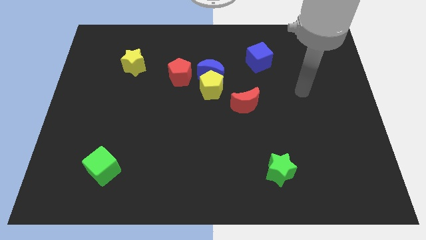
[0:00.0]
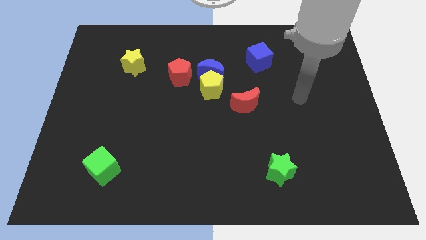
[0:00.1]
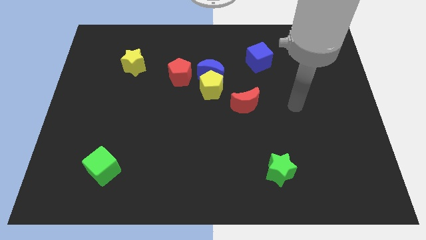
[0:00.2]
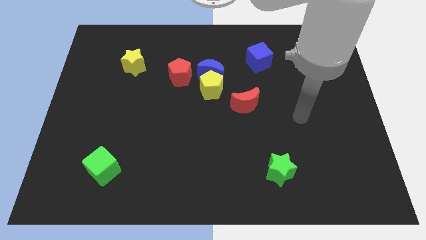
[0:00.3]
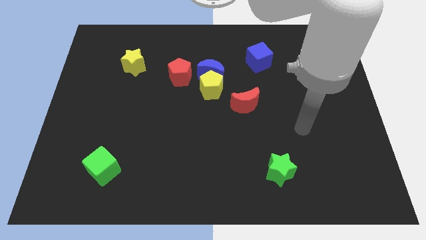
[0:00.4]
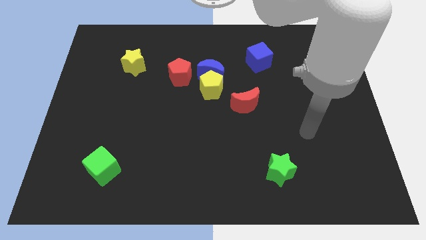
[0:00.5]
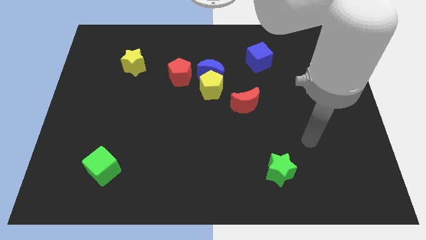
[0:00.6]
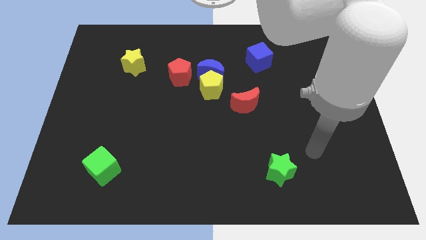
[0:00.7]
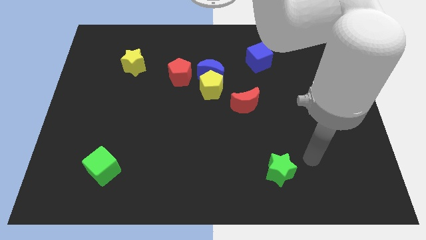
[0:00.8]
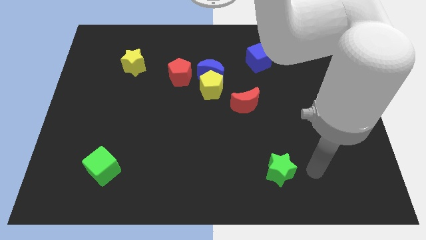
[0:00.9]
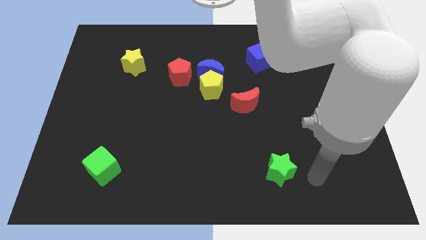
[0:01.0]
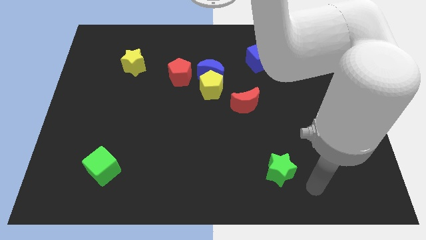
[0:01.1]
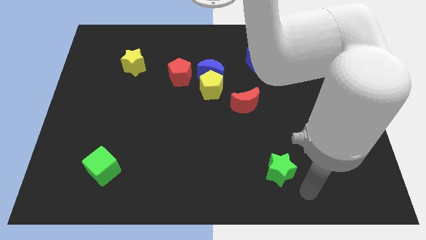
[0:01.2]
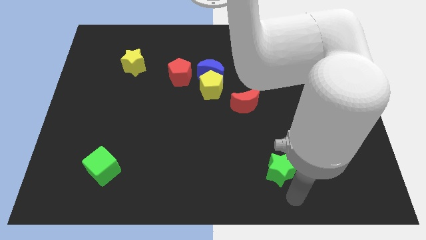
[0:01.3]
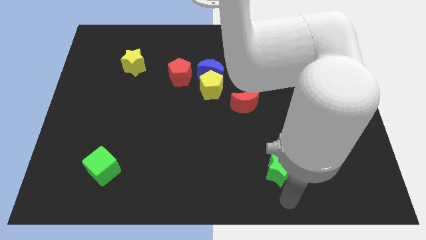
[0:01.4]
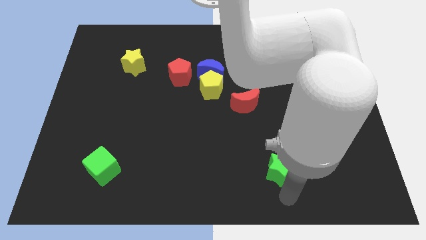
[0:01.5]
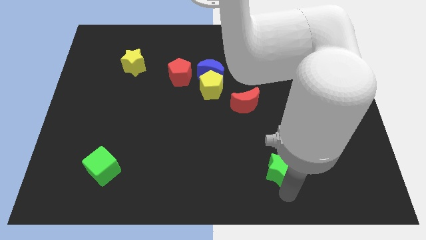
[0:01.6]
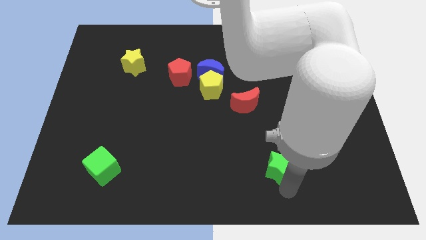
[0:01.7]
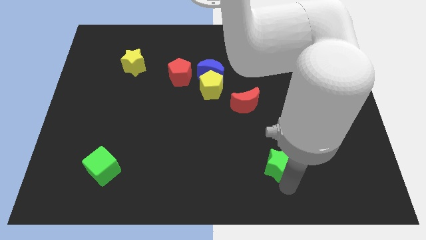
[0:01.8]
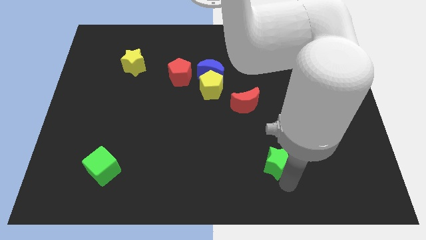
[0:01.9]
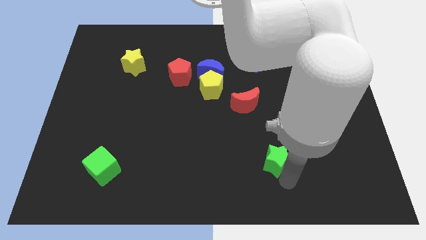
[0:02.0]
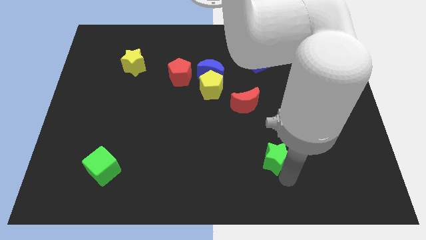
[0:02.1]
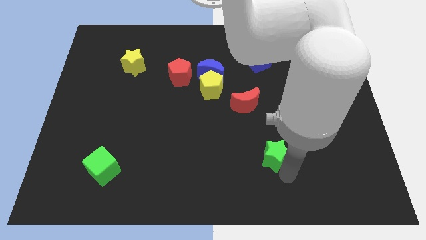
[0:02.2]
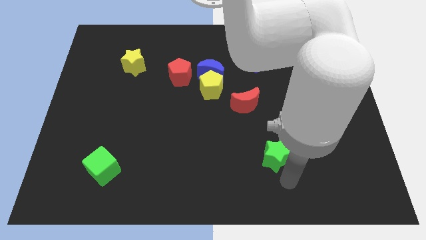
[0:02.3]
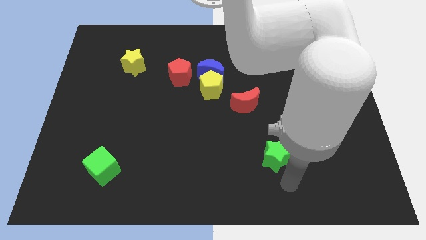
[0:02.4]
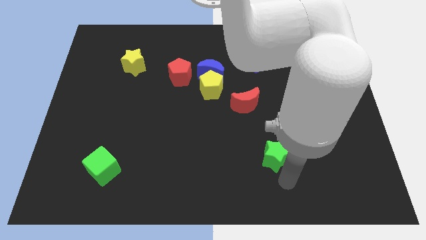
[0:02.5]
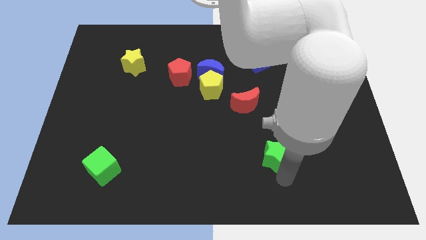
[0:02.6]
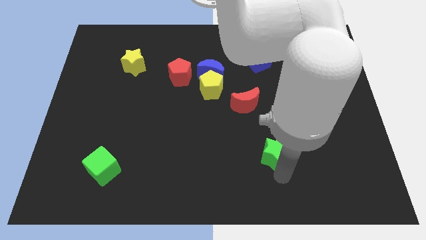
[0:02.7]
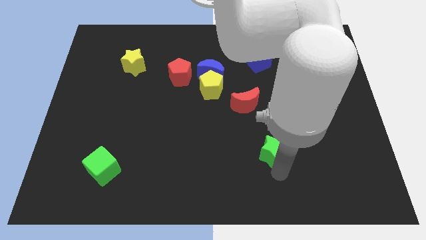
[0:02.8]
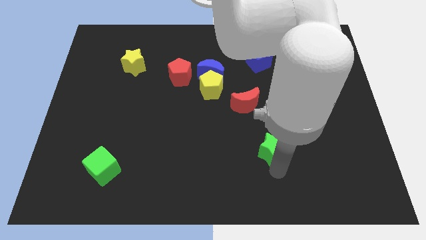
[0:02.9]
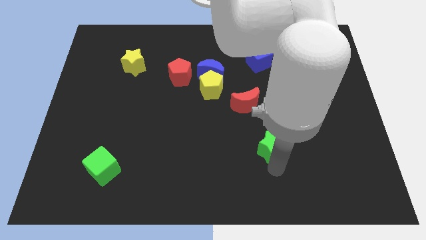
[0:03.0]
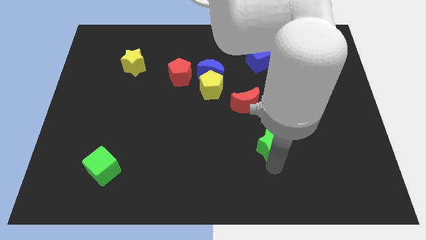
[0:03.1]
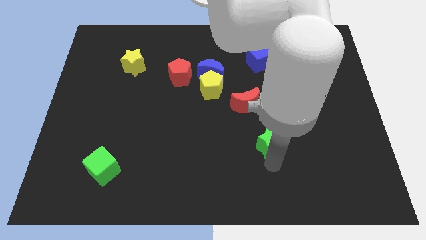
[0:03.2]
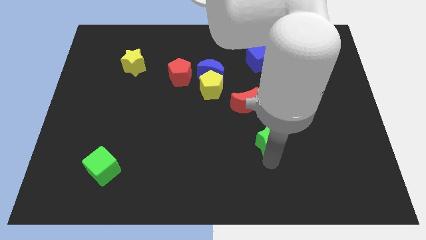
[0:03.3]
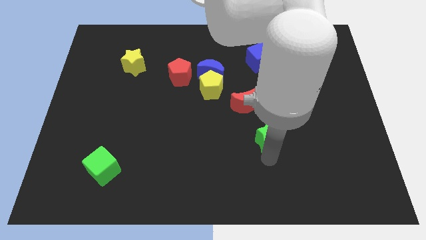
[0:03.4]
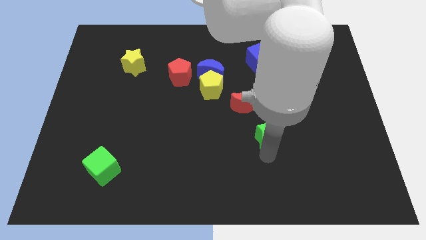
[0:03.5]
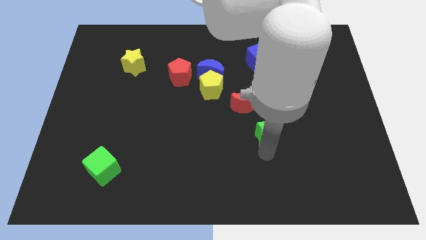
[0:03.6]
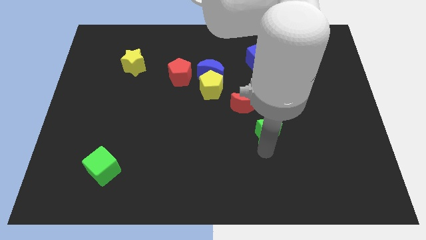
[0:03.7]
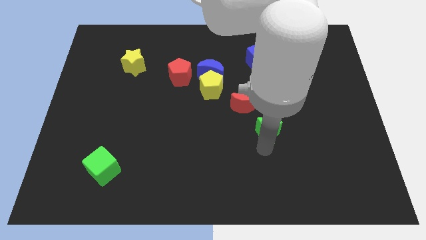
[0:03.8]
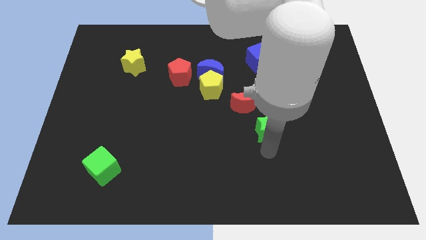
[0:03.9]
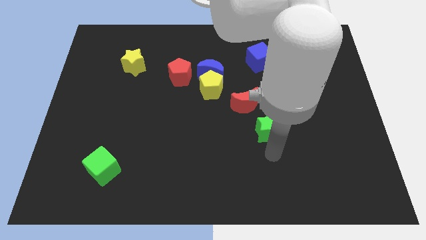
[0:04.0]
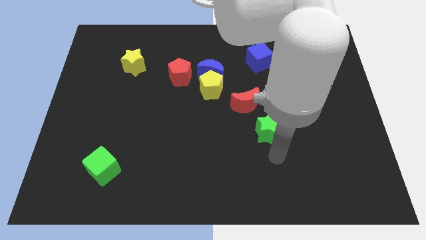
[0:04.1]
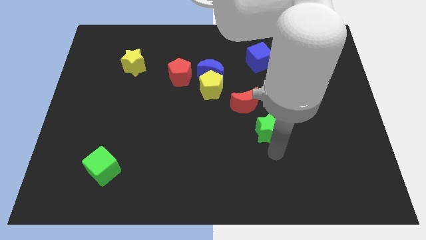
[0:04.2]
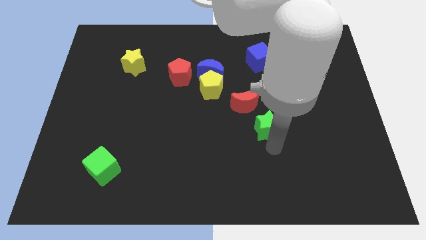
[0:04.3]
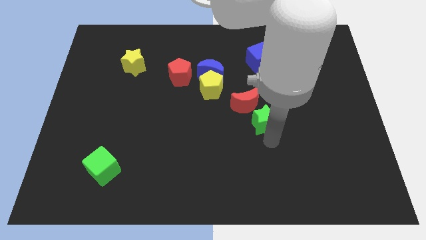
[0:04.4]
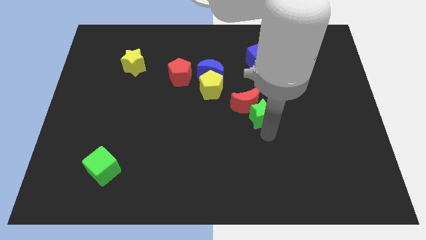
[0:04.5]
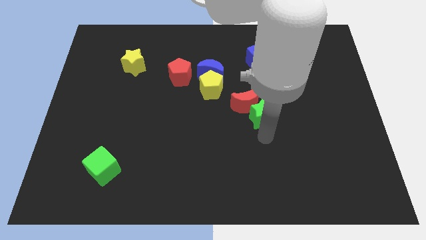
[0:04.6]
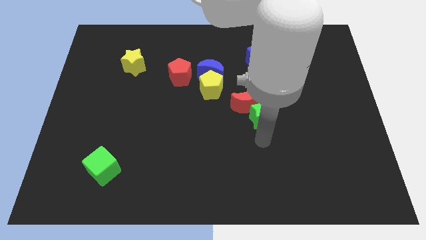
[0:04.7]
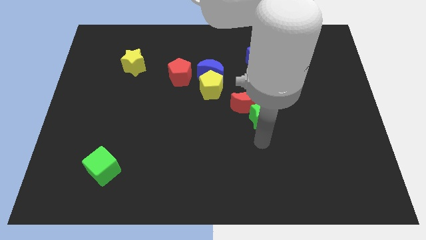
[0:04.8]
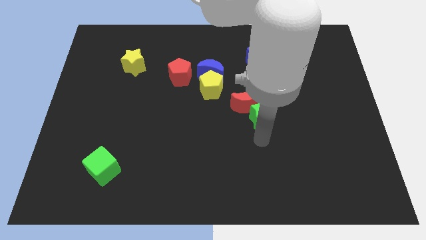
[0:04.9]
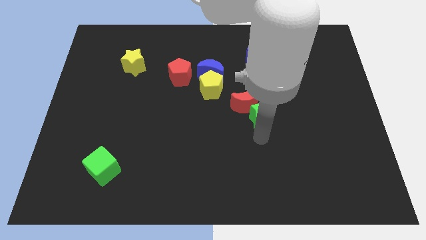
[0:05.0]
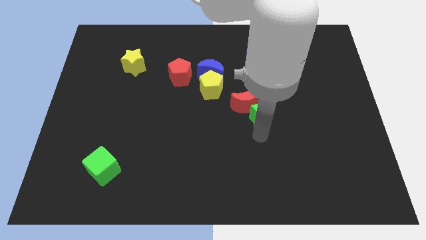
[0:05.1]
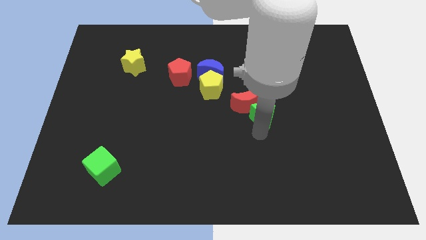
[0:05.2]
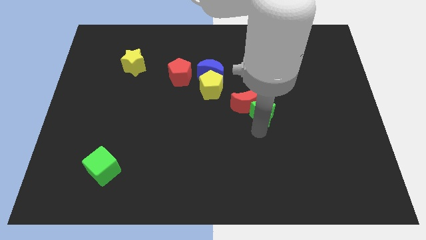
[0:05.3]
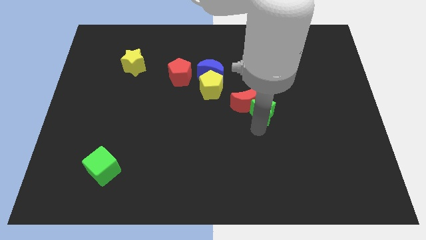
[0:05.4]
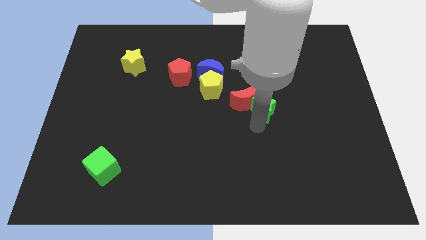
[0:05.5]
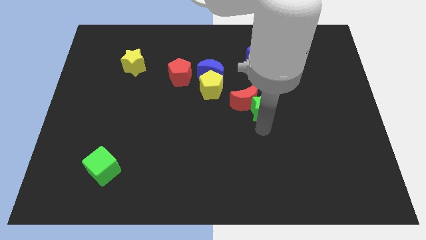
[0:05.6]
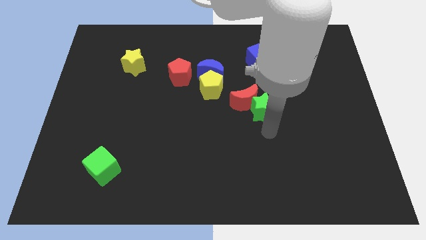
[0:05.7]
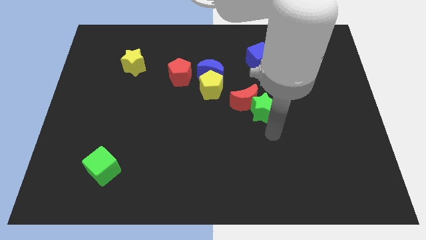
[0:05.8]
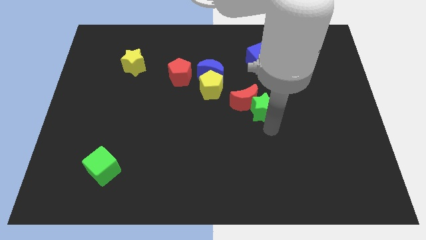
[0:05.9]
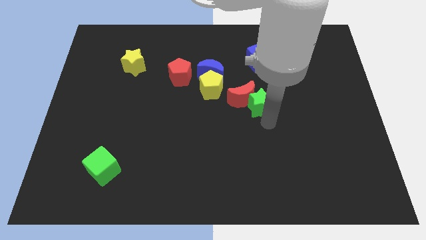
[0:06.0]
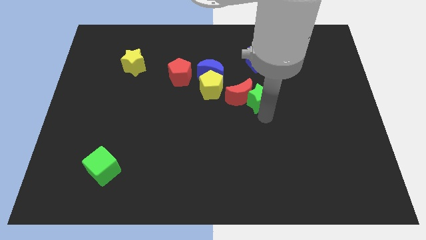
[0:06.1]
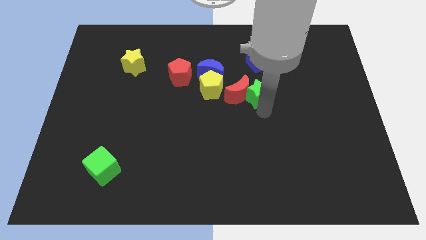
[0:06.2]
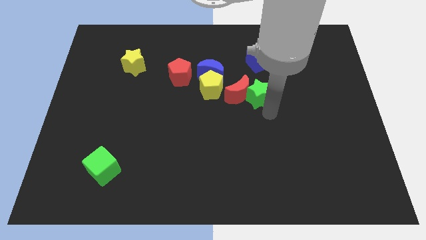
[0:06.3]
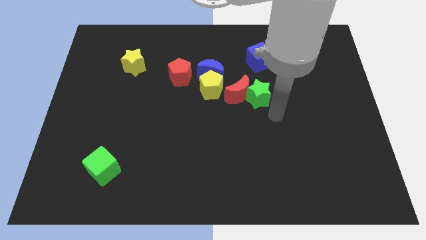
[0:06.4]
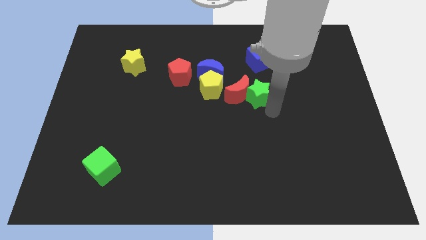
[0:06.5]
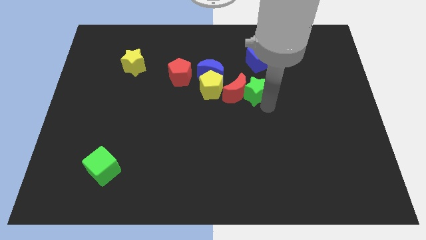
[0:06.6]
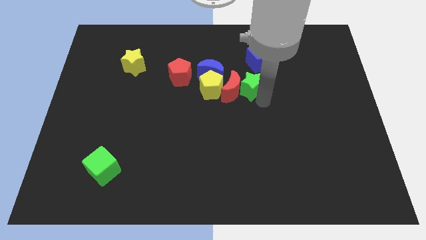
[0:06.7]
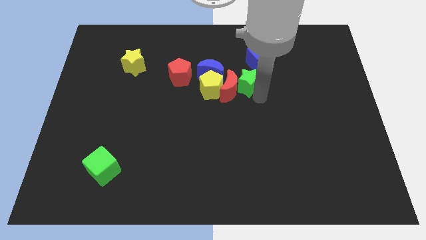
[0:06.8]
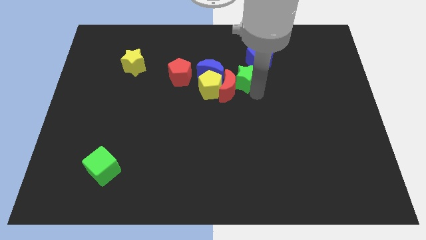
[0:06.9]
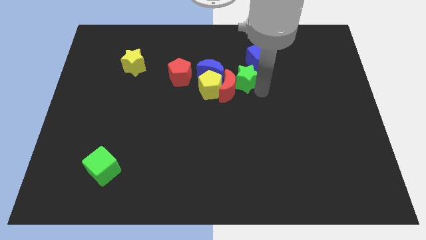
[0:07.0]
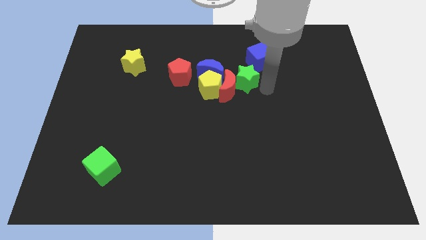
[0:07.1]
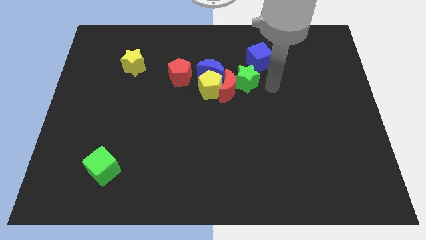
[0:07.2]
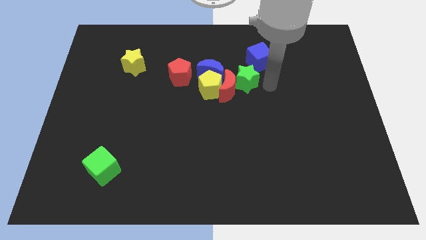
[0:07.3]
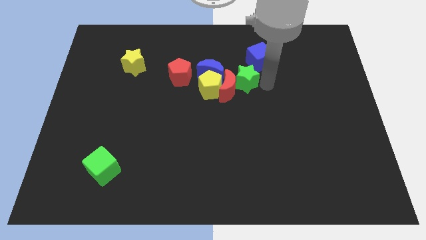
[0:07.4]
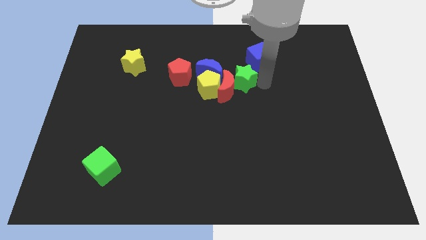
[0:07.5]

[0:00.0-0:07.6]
put the green star to the right of the red pentagon
